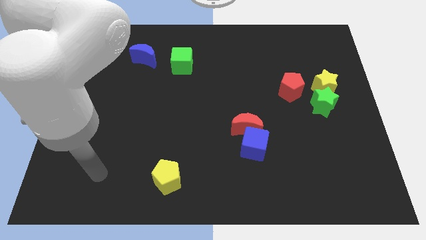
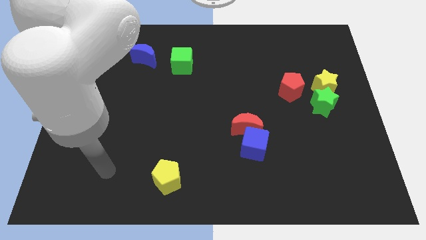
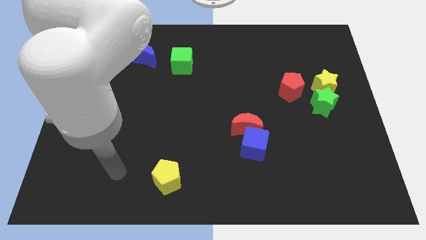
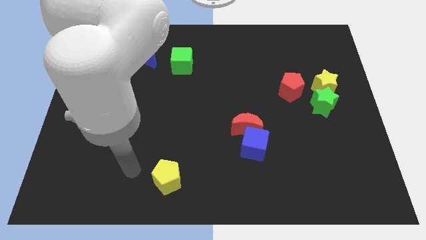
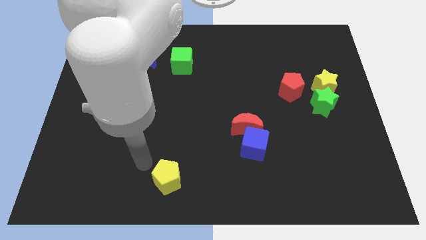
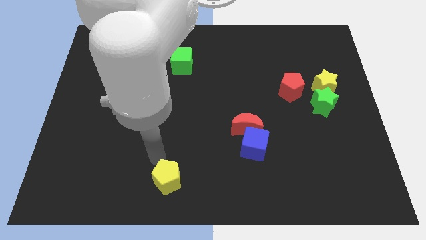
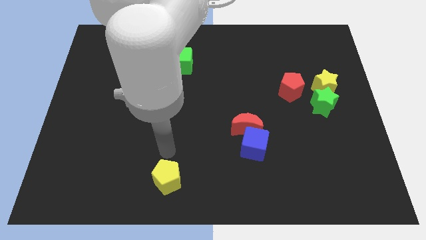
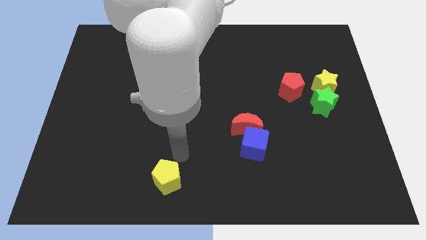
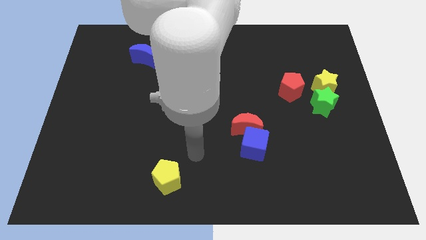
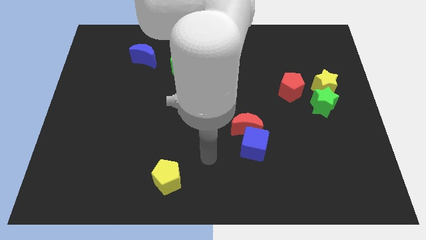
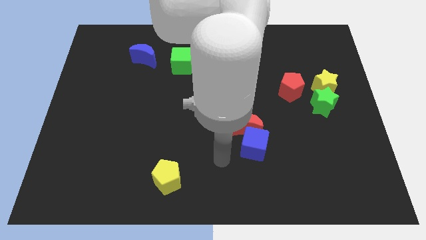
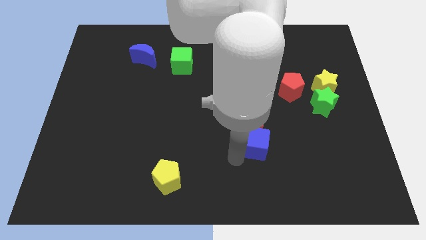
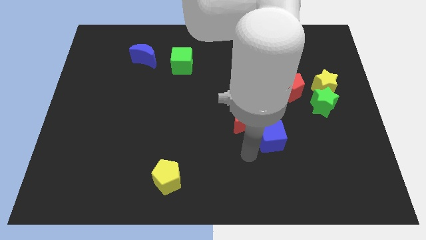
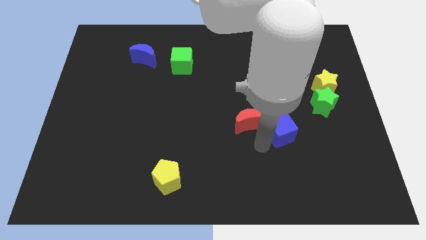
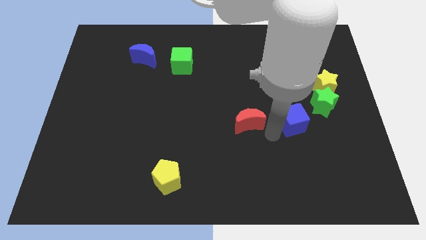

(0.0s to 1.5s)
separate the red moon from the blue cube

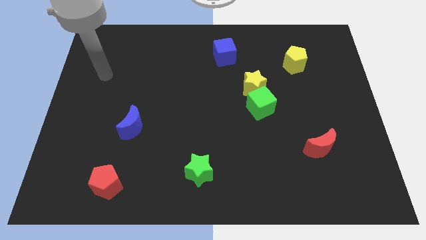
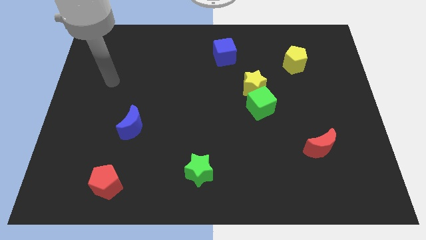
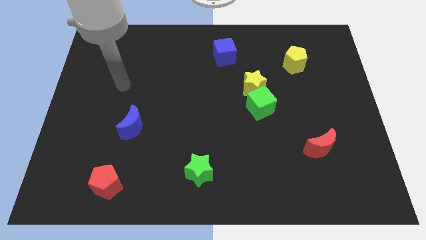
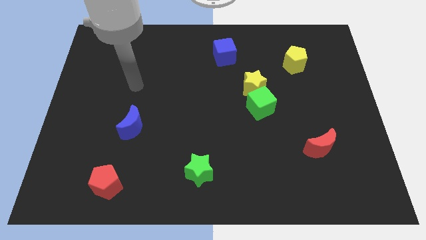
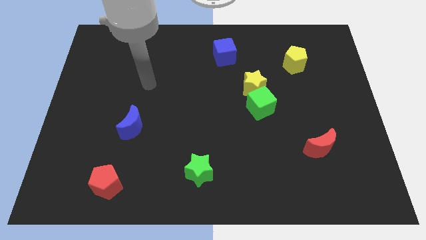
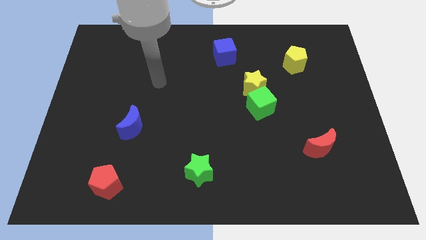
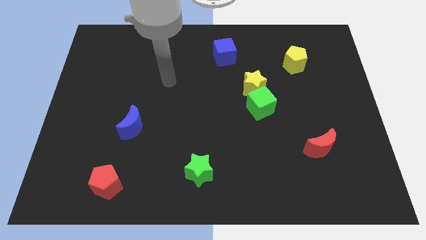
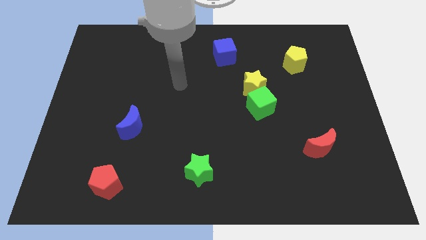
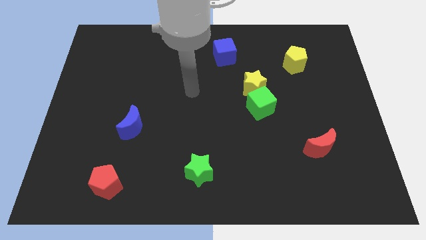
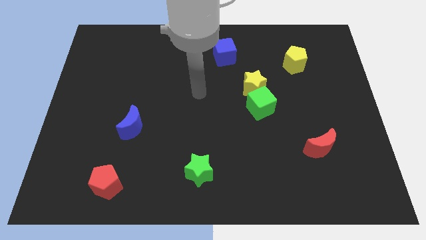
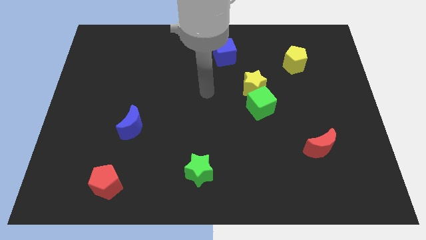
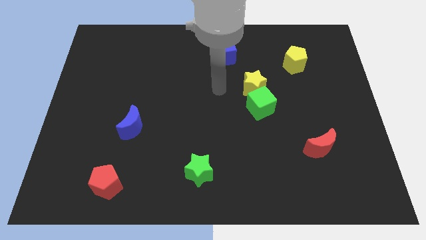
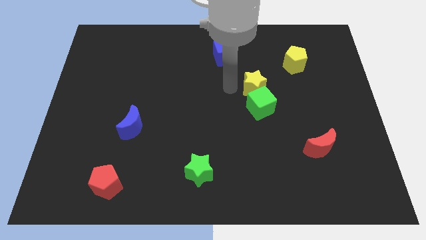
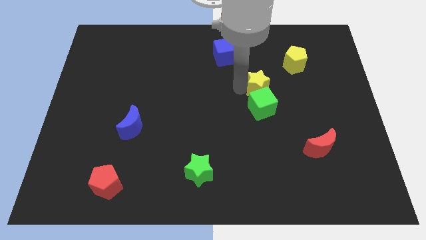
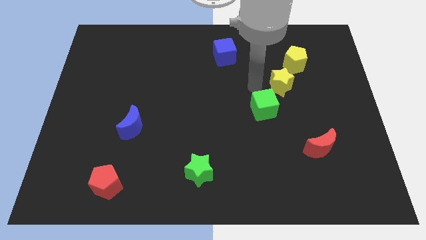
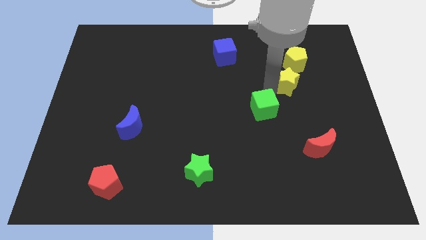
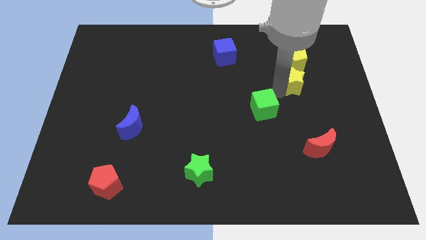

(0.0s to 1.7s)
pull the green cube apart from the yellow star

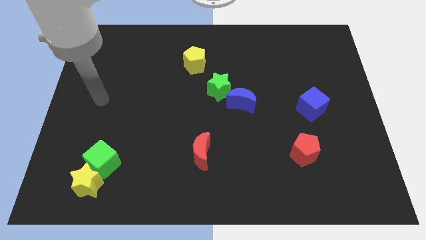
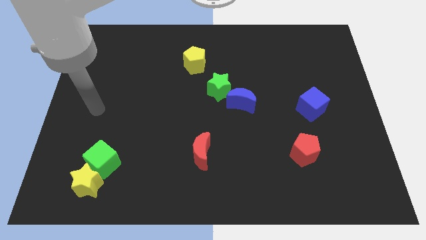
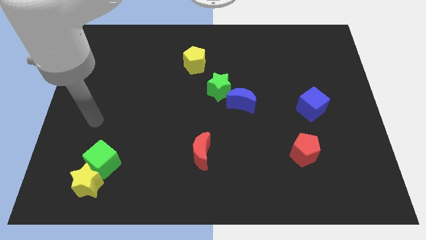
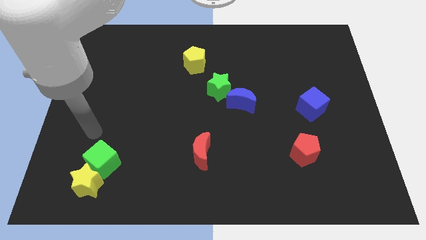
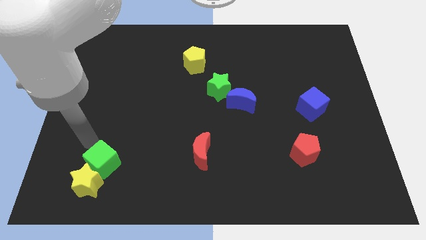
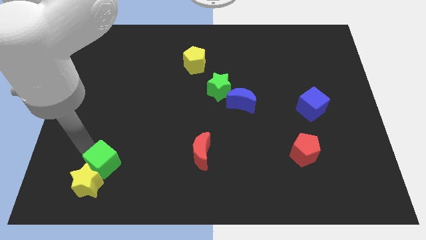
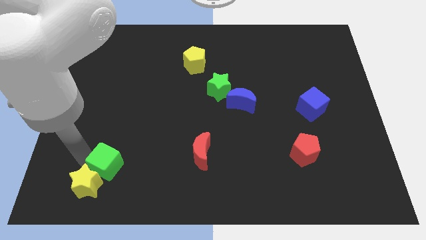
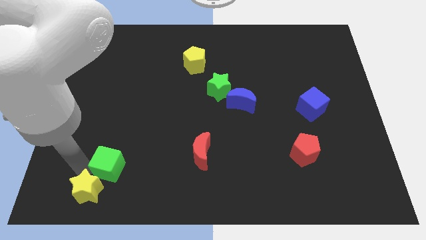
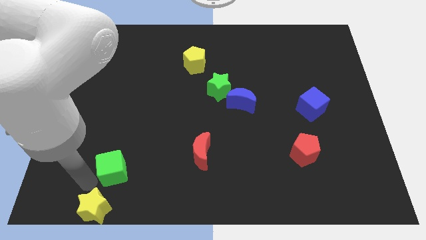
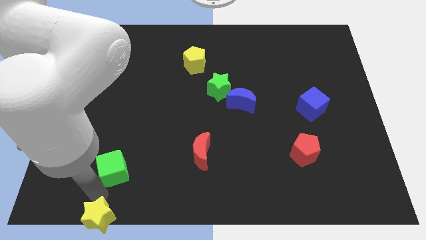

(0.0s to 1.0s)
move the green cube away from the yellow star

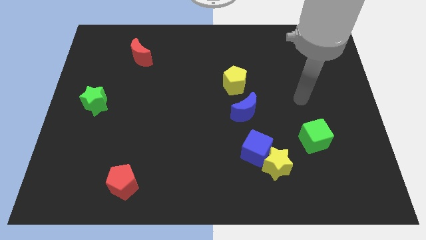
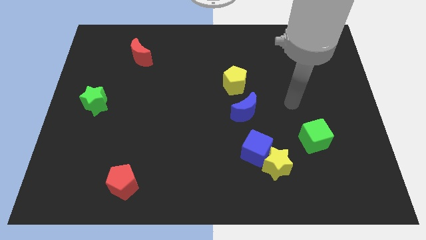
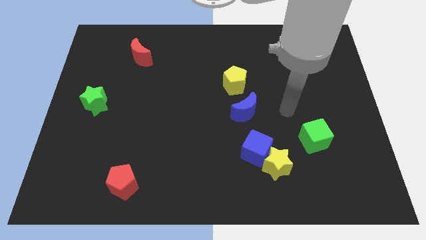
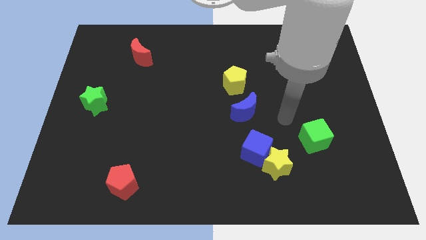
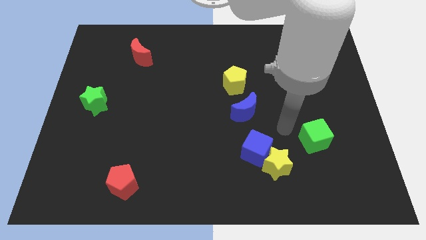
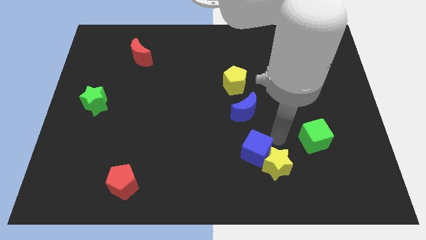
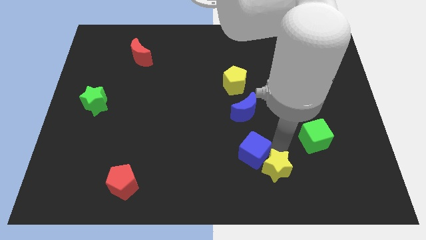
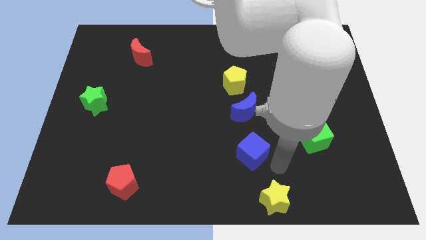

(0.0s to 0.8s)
pull the blue cube apart from the yellow star

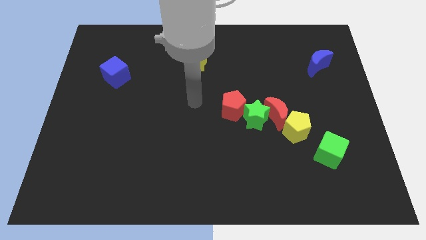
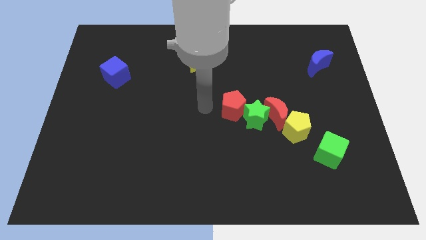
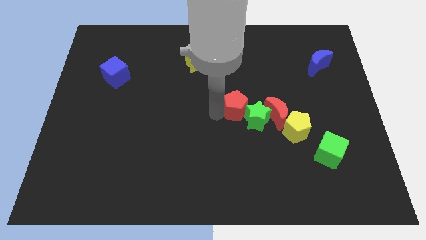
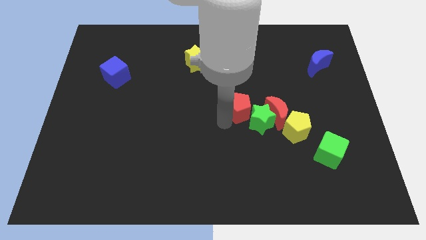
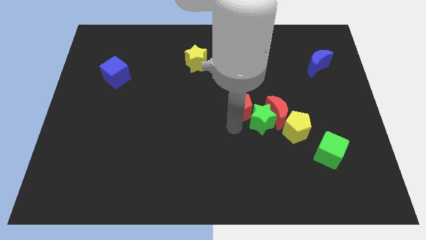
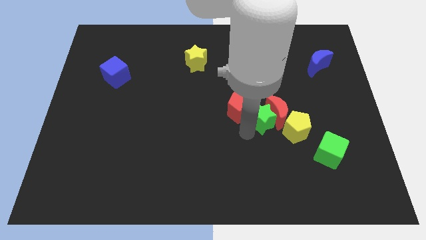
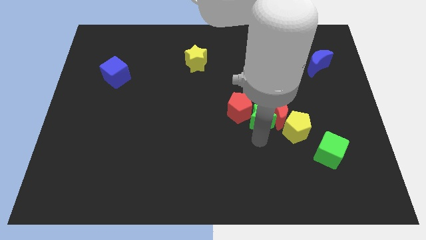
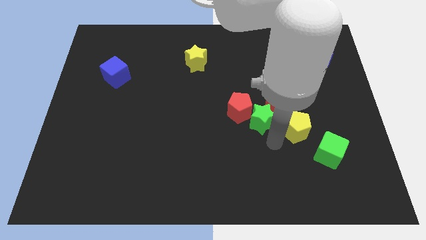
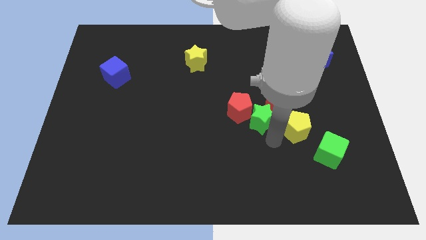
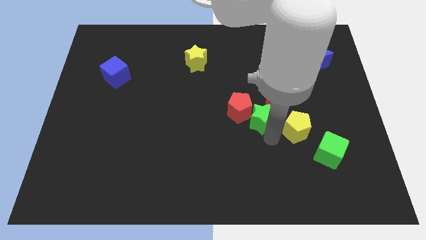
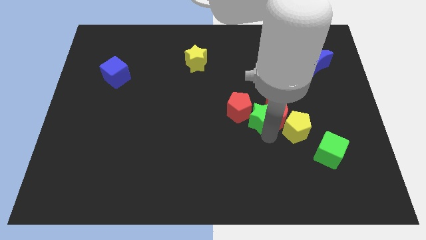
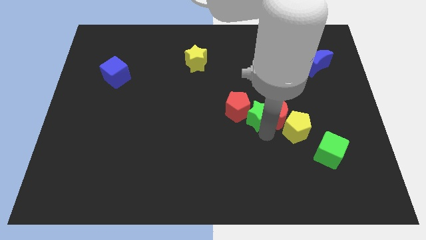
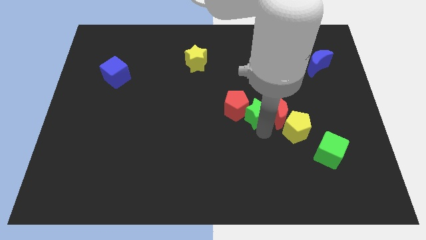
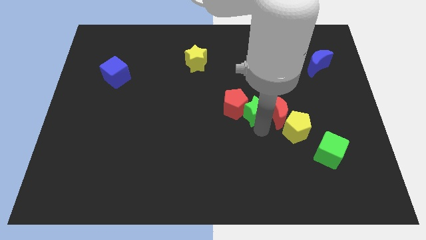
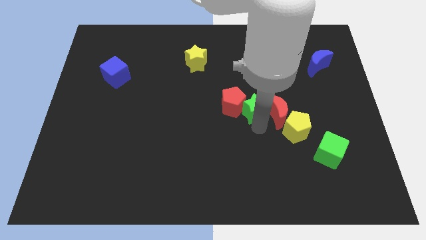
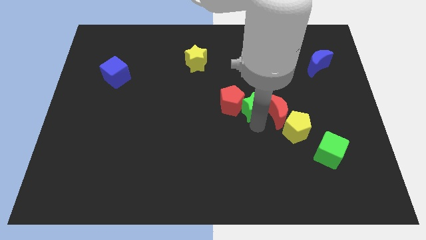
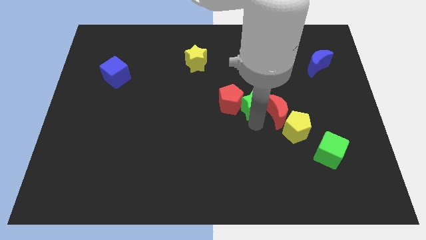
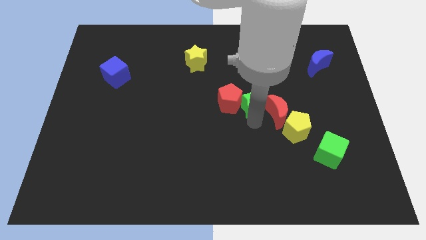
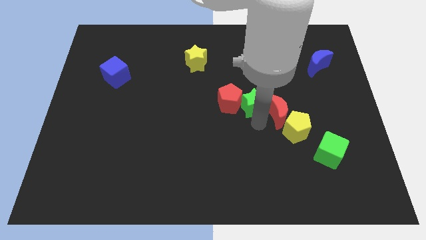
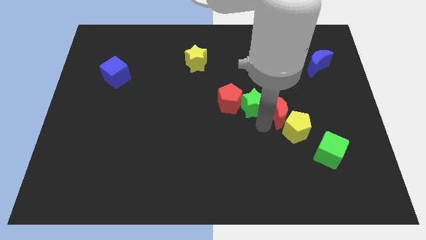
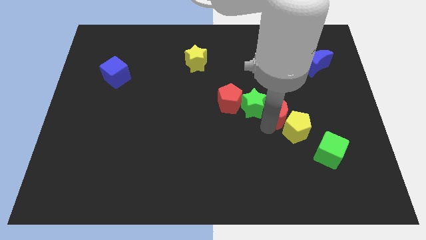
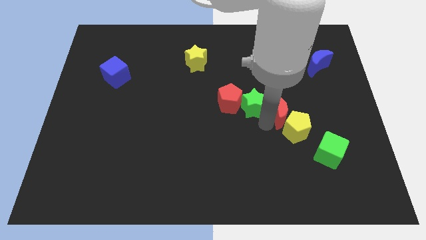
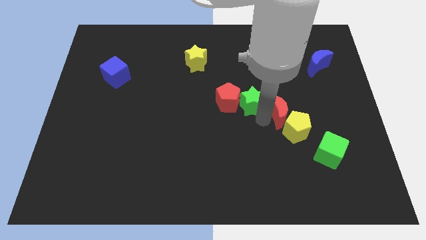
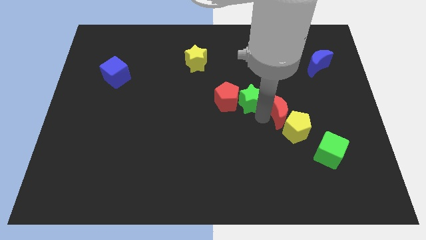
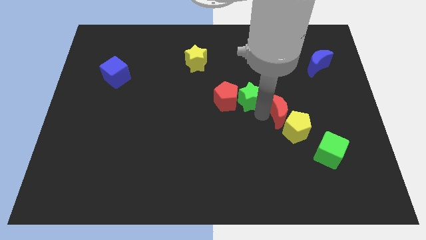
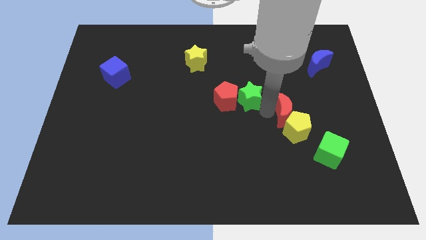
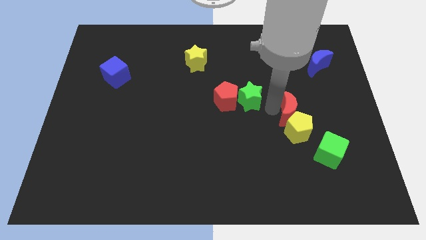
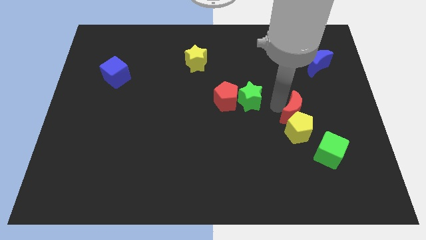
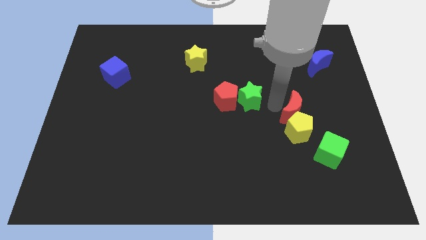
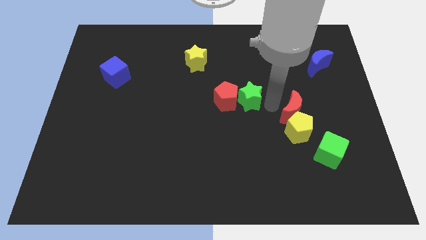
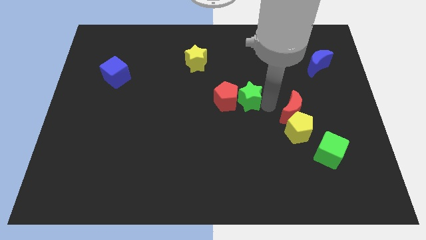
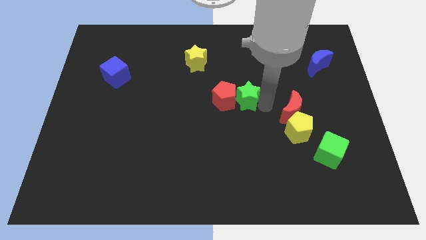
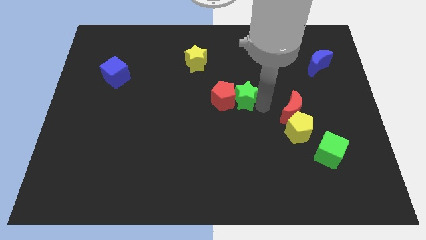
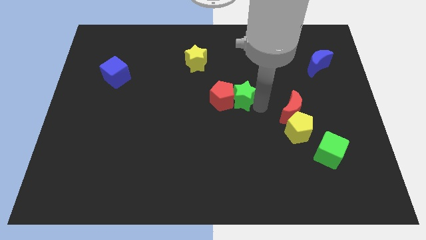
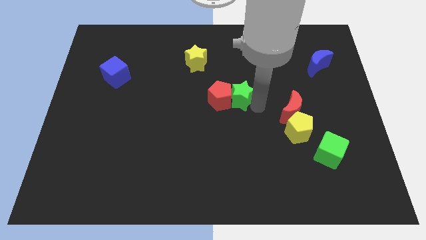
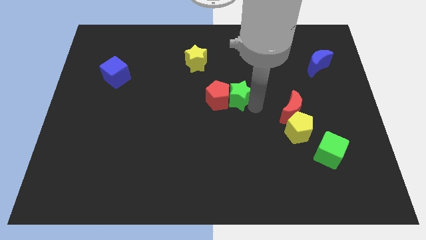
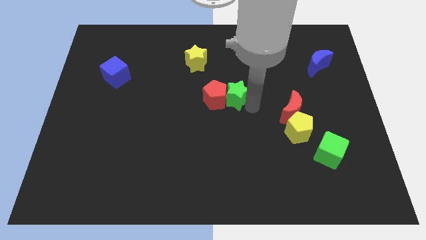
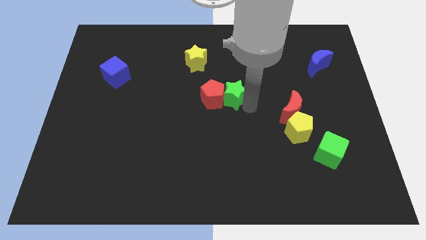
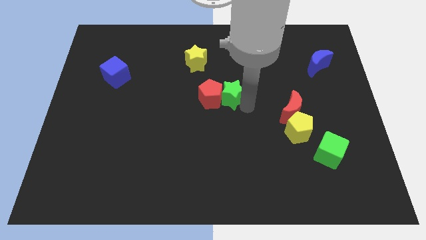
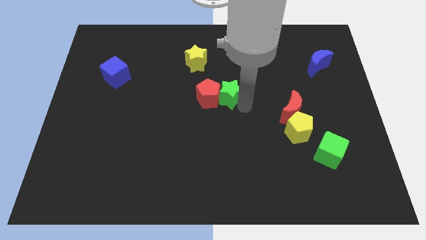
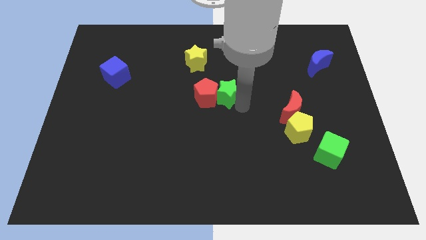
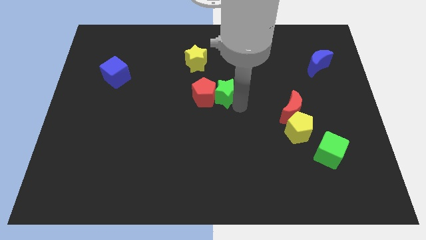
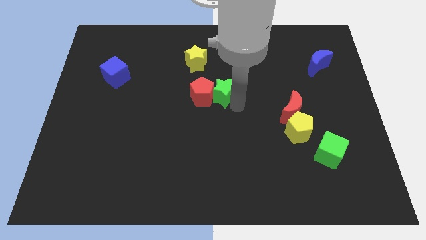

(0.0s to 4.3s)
separate the green star from the clump
